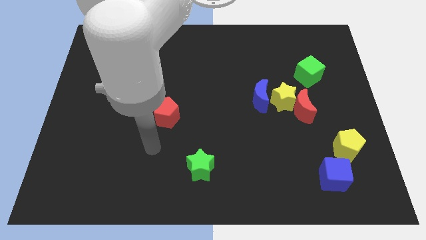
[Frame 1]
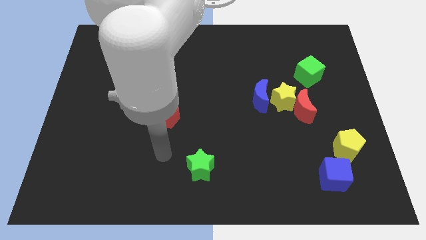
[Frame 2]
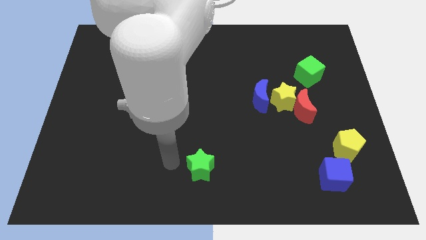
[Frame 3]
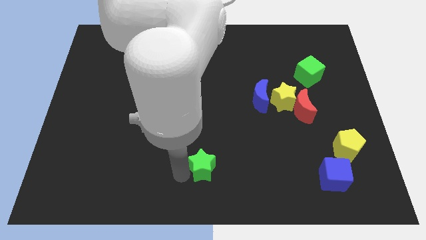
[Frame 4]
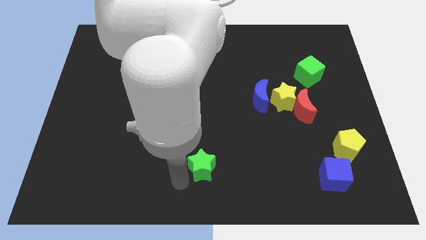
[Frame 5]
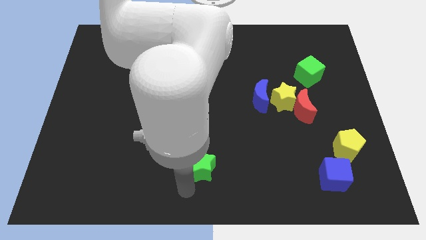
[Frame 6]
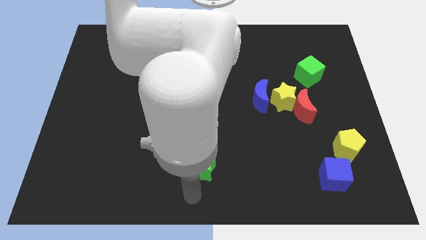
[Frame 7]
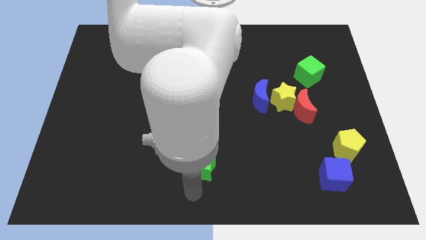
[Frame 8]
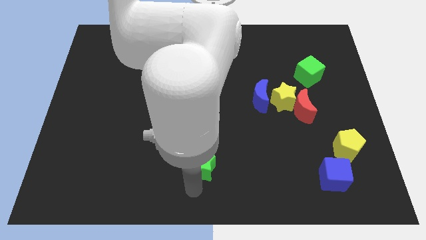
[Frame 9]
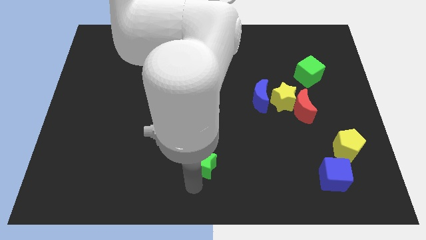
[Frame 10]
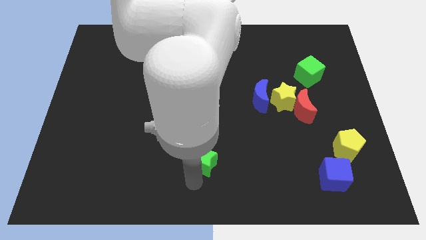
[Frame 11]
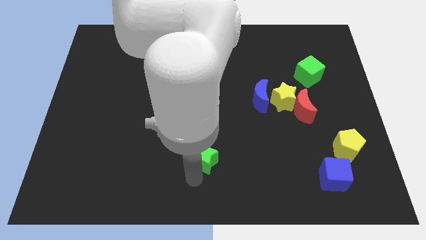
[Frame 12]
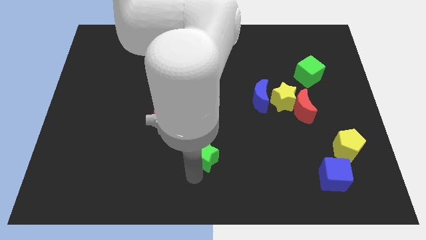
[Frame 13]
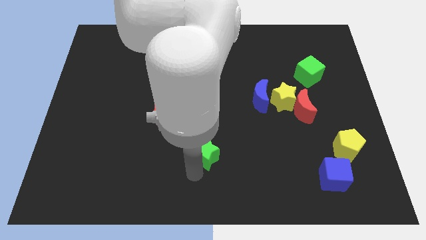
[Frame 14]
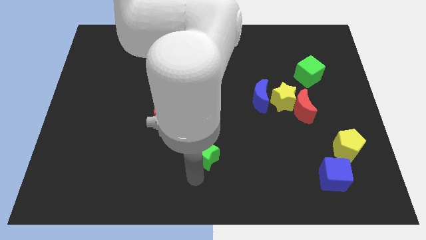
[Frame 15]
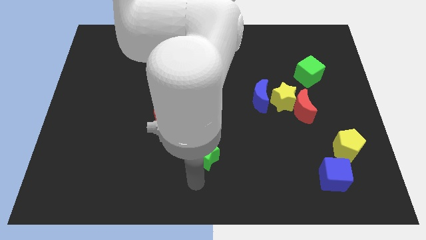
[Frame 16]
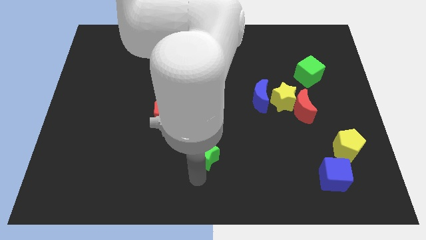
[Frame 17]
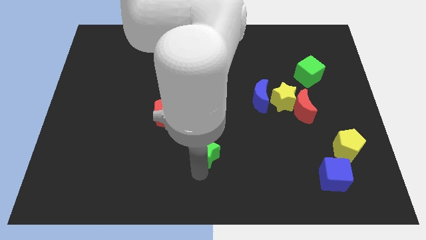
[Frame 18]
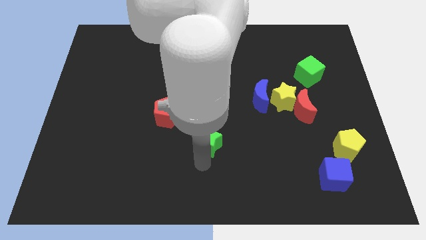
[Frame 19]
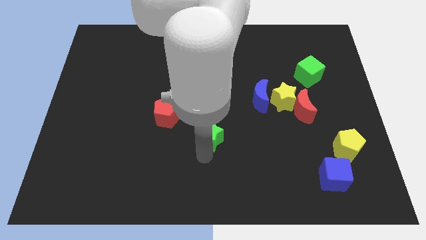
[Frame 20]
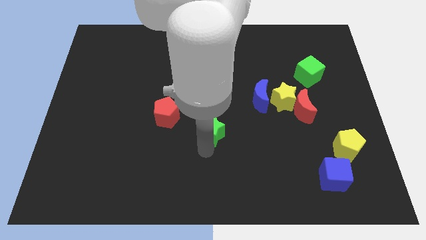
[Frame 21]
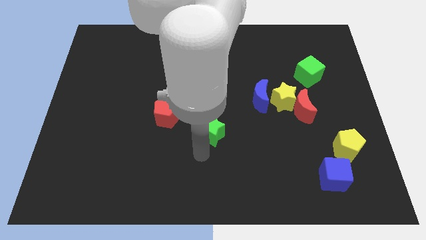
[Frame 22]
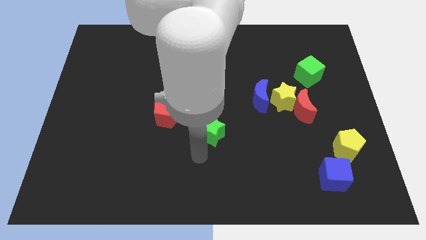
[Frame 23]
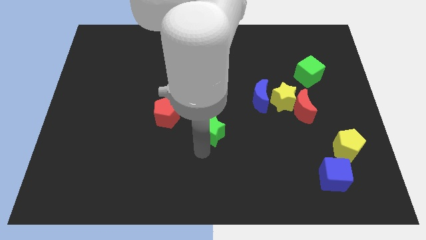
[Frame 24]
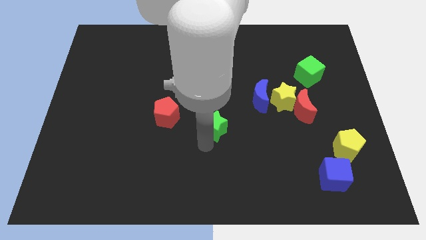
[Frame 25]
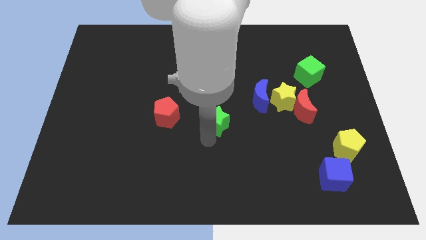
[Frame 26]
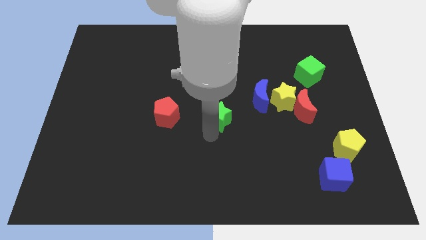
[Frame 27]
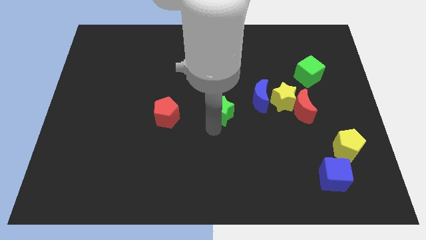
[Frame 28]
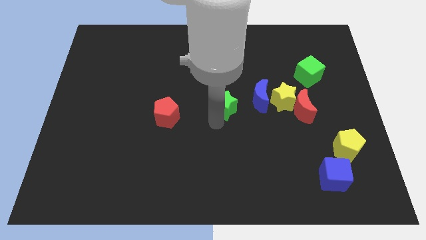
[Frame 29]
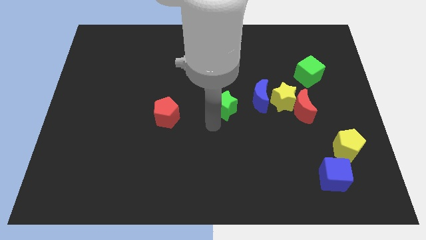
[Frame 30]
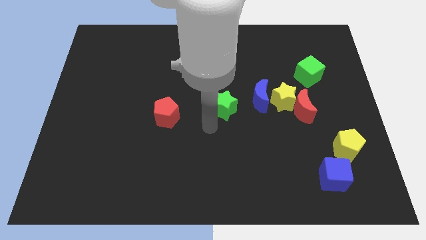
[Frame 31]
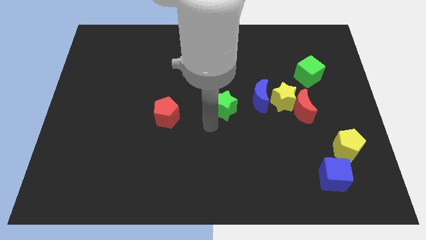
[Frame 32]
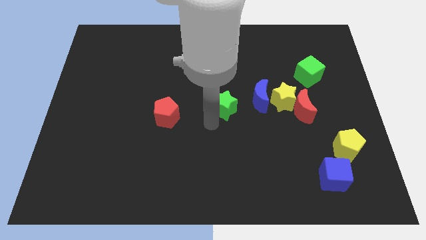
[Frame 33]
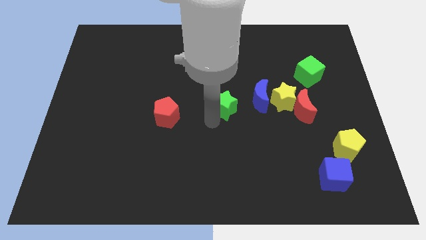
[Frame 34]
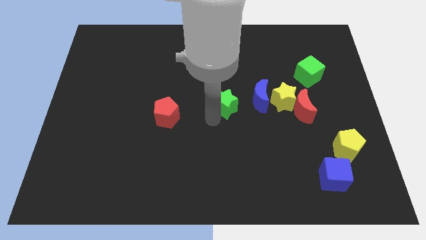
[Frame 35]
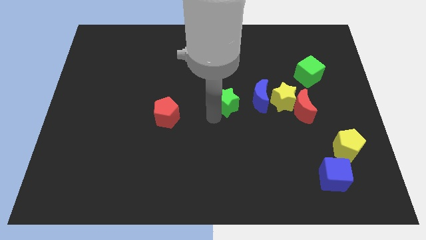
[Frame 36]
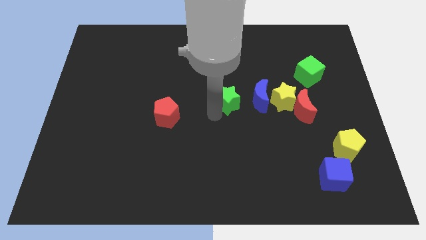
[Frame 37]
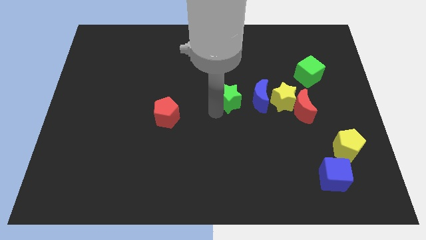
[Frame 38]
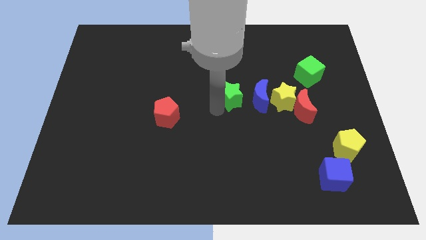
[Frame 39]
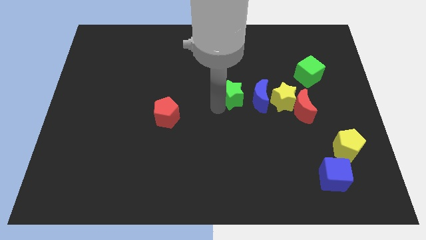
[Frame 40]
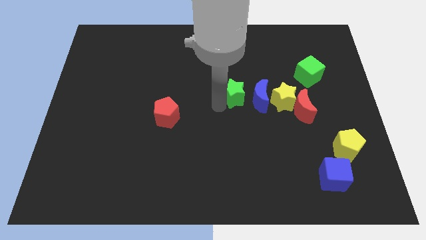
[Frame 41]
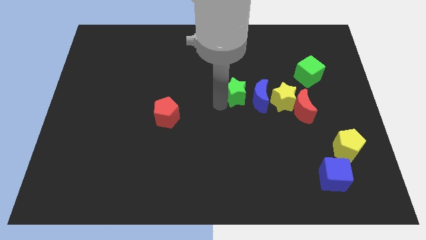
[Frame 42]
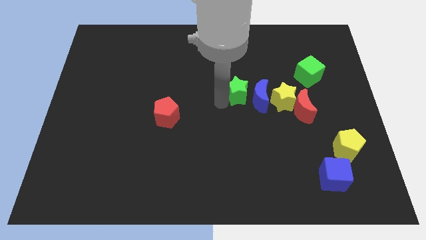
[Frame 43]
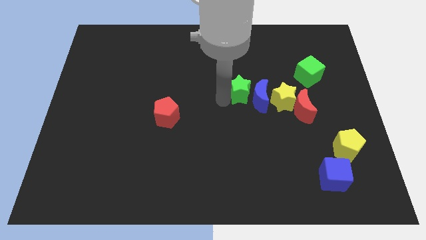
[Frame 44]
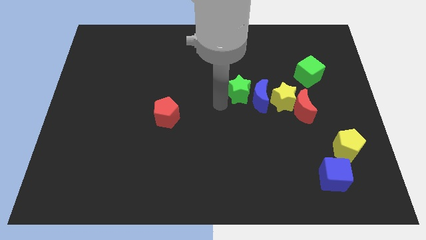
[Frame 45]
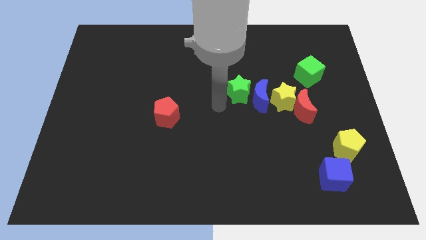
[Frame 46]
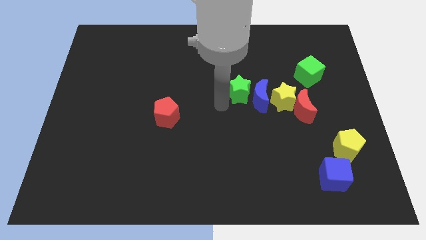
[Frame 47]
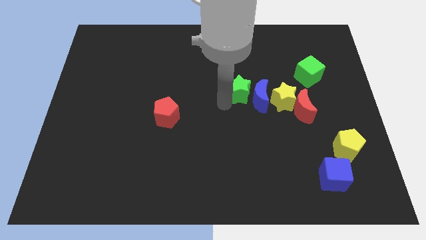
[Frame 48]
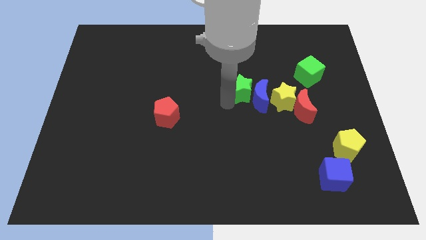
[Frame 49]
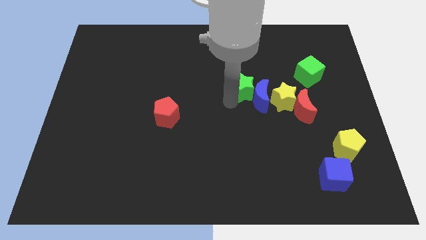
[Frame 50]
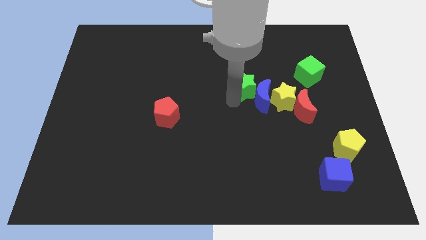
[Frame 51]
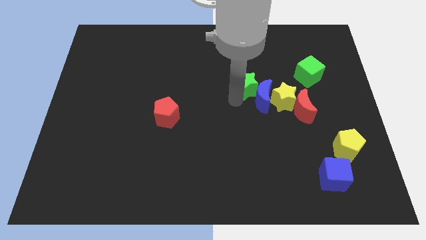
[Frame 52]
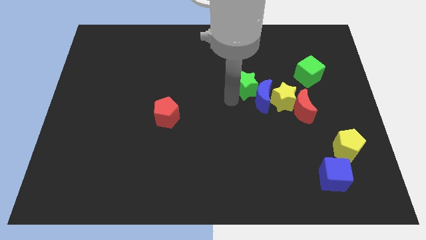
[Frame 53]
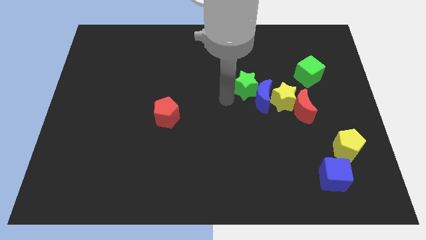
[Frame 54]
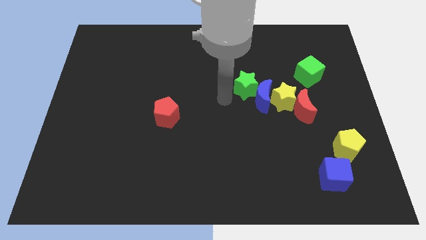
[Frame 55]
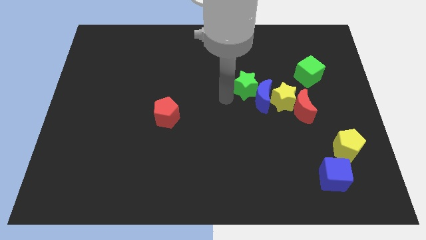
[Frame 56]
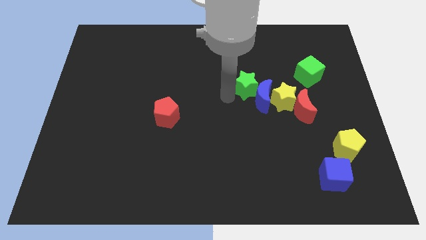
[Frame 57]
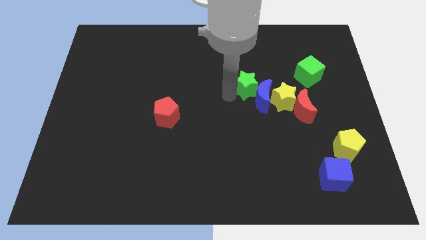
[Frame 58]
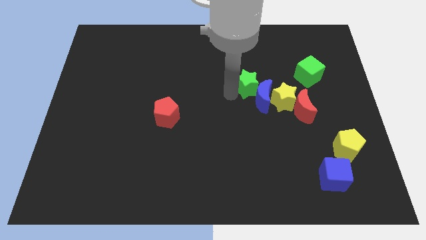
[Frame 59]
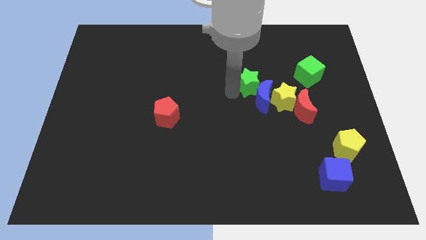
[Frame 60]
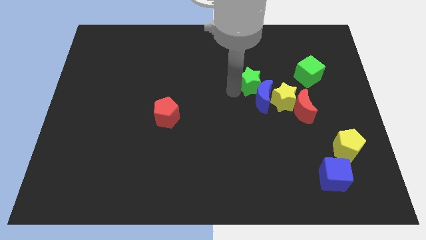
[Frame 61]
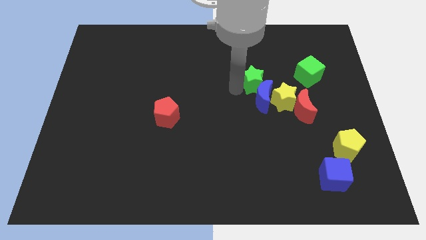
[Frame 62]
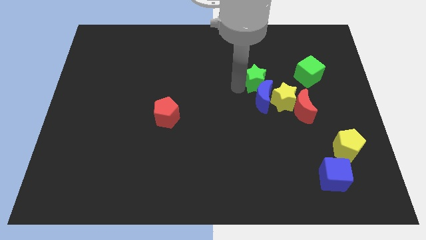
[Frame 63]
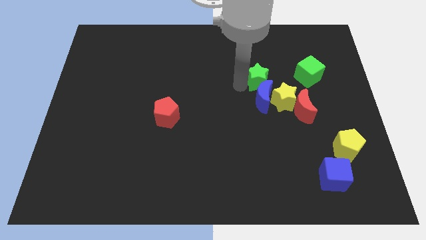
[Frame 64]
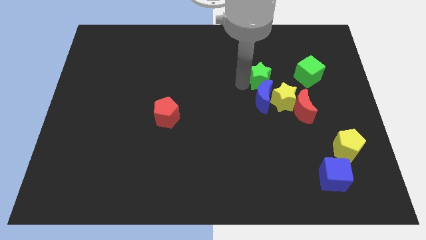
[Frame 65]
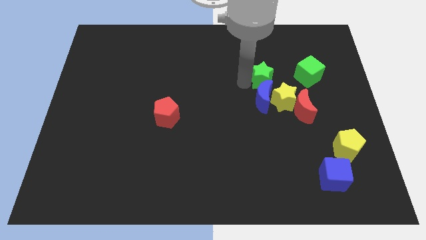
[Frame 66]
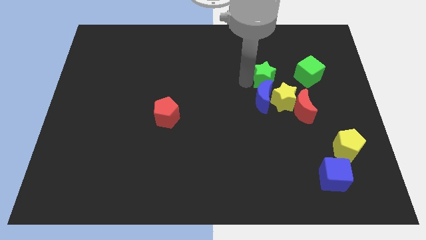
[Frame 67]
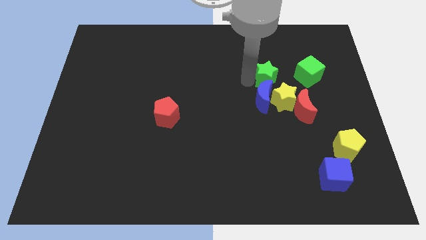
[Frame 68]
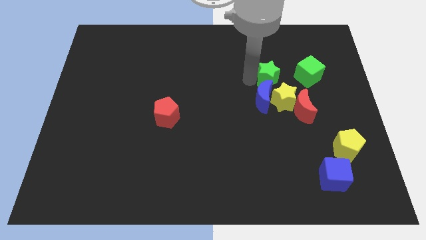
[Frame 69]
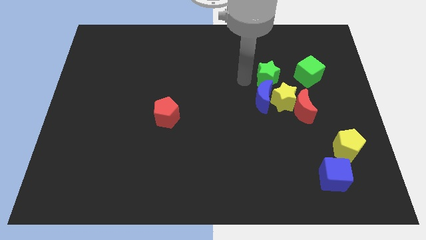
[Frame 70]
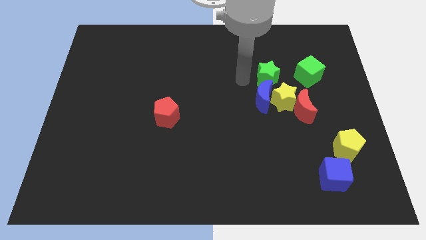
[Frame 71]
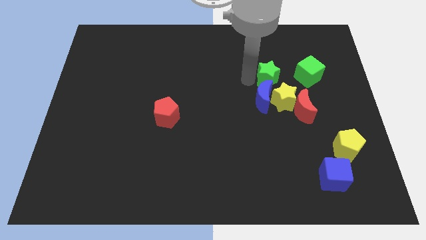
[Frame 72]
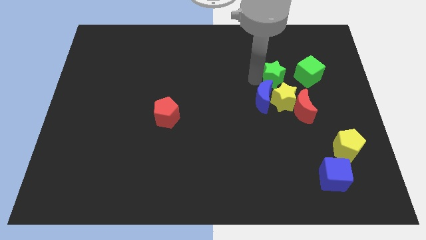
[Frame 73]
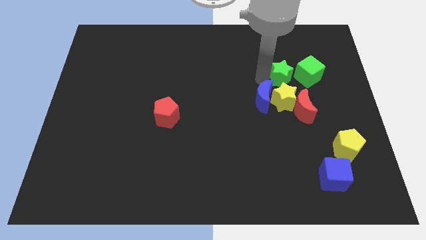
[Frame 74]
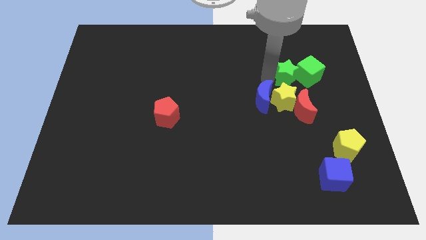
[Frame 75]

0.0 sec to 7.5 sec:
put the green star to the green cube

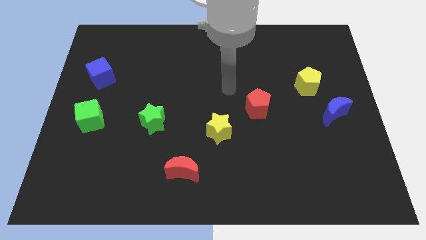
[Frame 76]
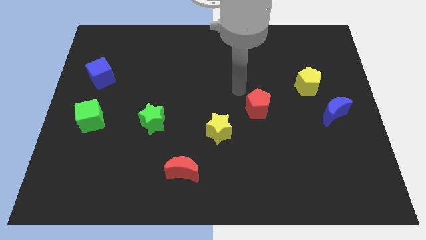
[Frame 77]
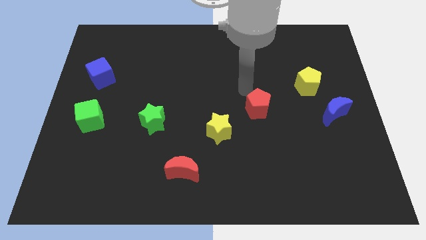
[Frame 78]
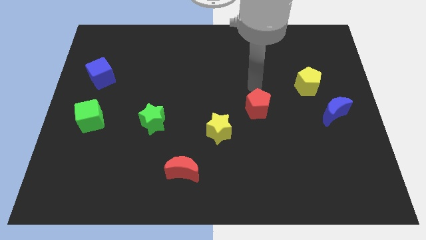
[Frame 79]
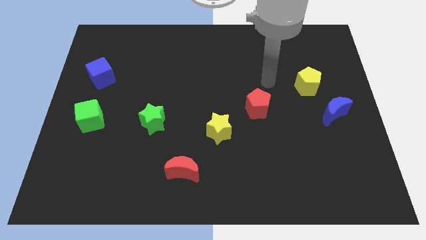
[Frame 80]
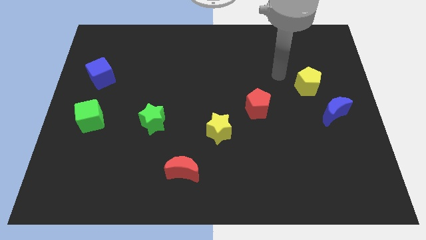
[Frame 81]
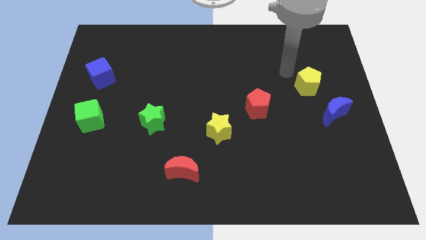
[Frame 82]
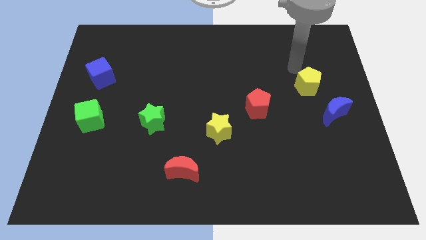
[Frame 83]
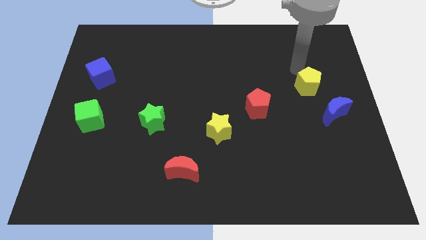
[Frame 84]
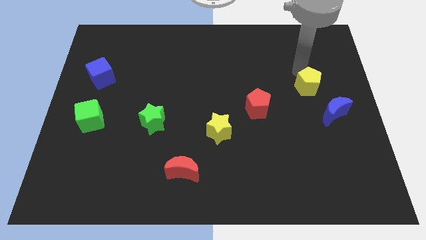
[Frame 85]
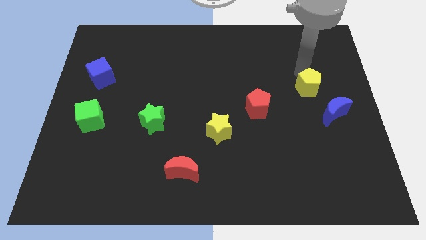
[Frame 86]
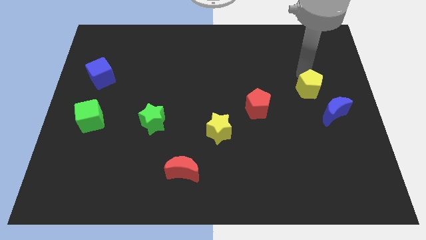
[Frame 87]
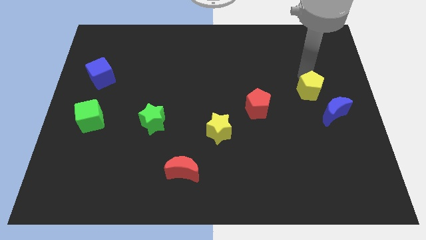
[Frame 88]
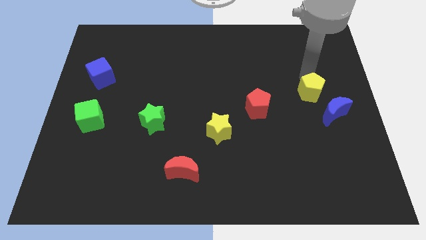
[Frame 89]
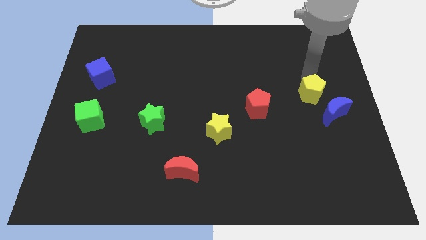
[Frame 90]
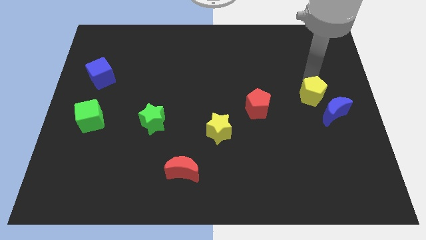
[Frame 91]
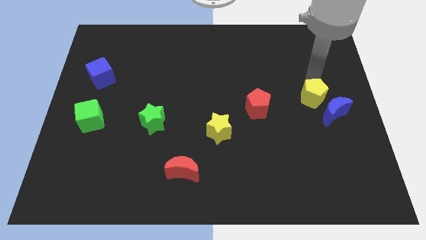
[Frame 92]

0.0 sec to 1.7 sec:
push the yellow pentagon next to the blue moon
